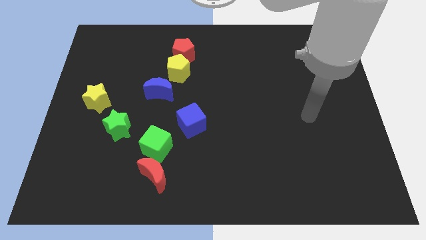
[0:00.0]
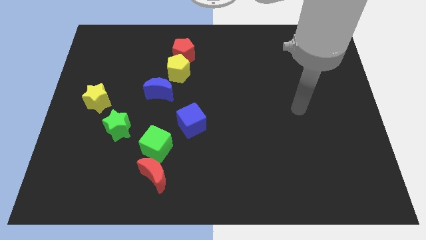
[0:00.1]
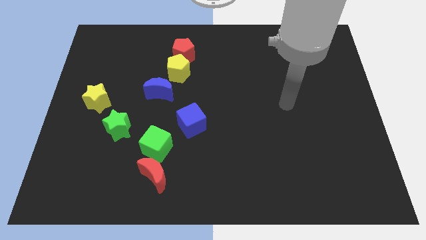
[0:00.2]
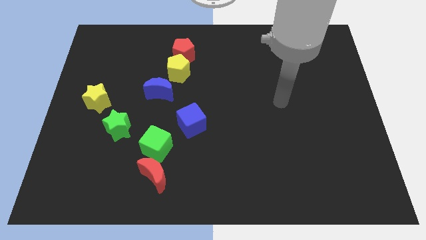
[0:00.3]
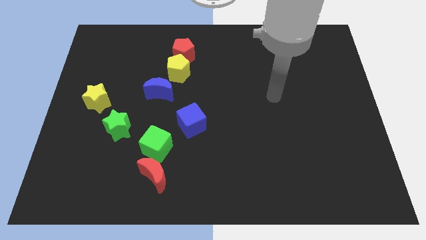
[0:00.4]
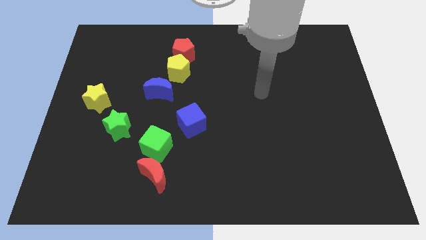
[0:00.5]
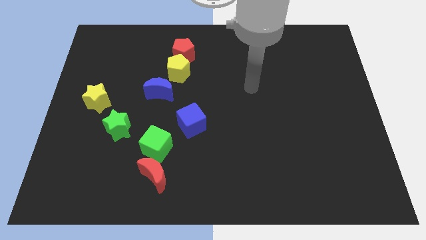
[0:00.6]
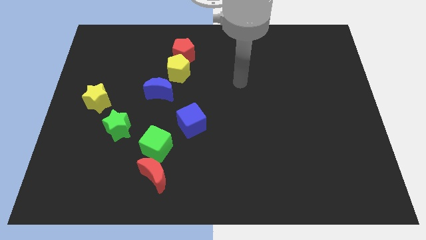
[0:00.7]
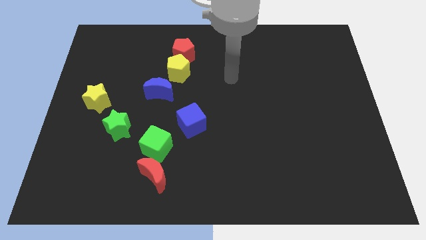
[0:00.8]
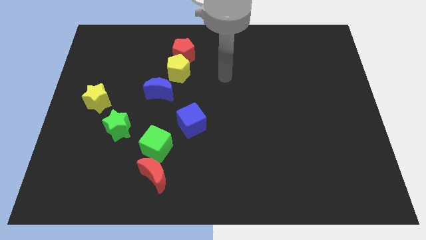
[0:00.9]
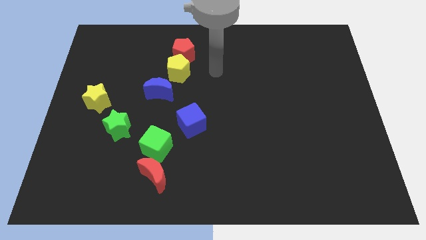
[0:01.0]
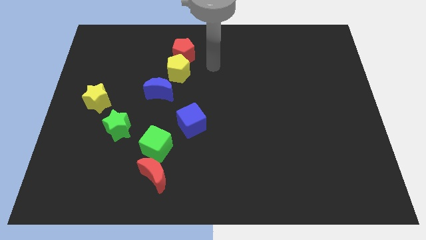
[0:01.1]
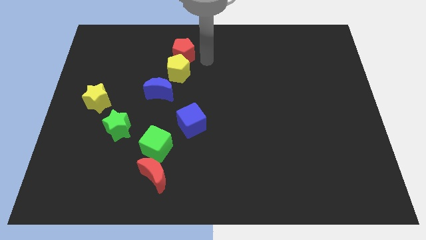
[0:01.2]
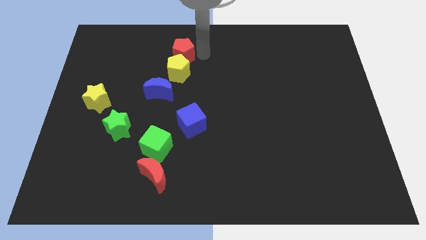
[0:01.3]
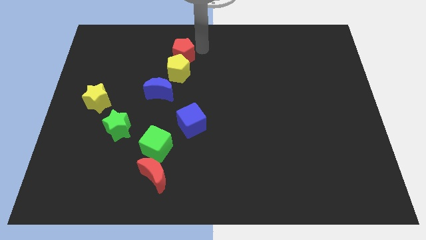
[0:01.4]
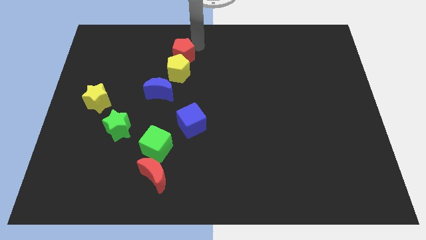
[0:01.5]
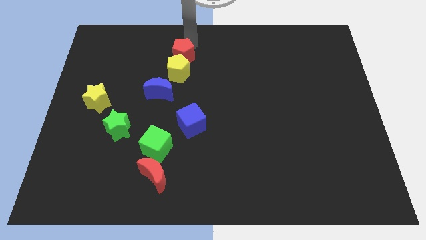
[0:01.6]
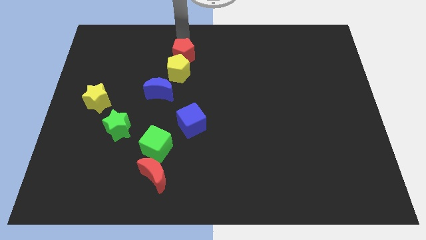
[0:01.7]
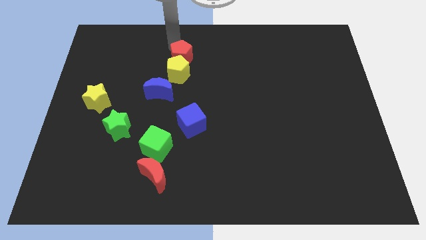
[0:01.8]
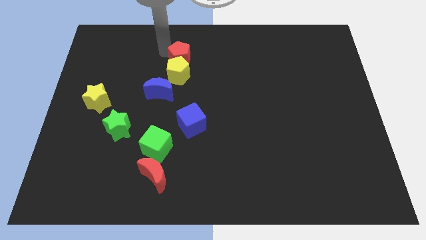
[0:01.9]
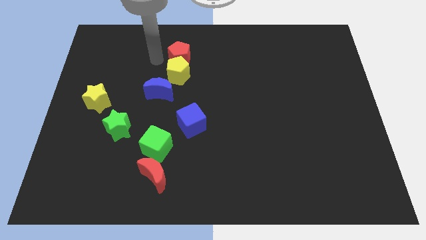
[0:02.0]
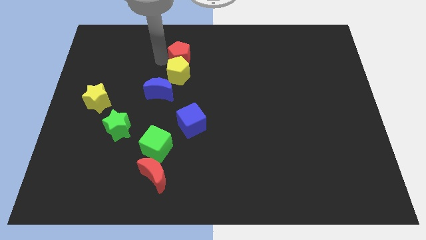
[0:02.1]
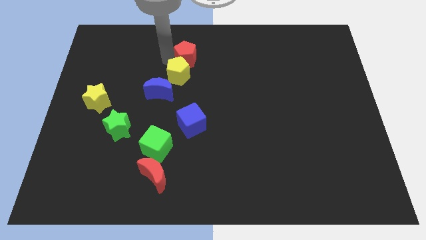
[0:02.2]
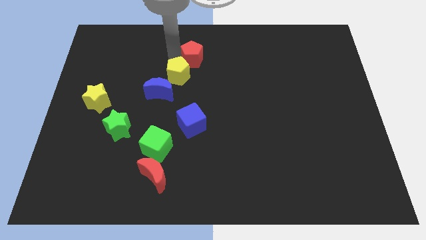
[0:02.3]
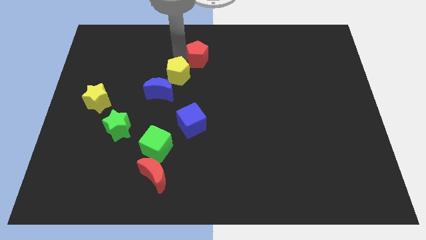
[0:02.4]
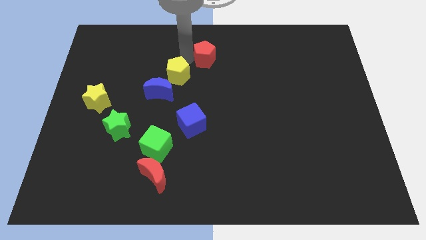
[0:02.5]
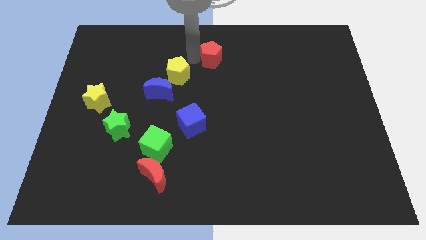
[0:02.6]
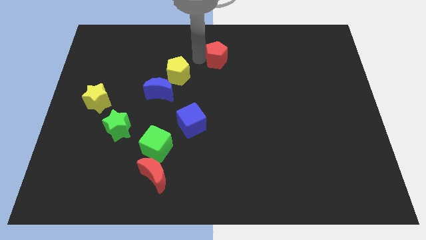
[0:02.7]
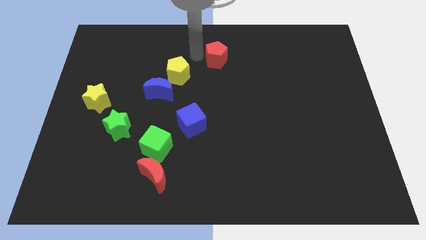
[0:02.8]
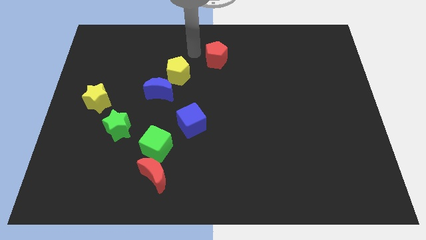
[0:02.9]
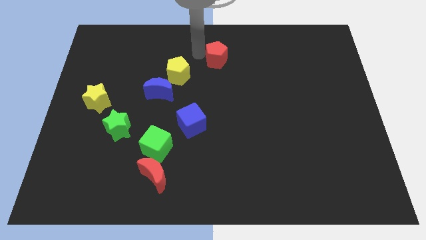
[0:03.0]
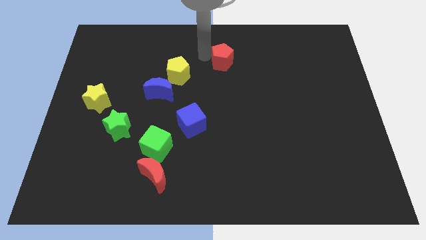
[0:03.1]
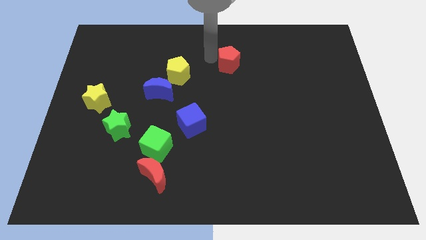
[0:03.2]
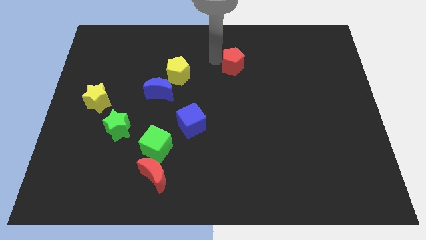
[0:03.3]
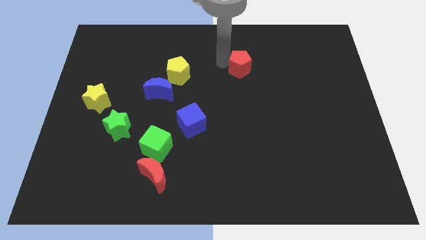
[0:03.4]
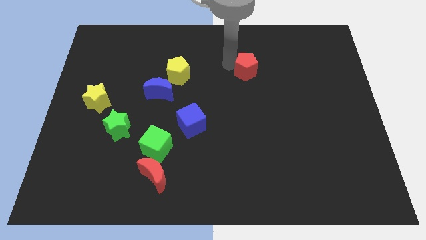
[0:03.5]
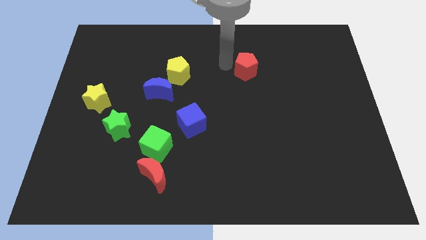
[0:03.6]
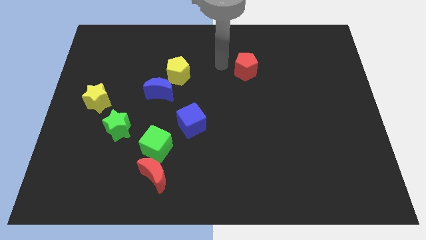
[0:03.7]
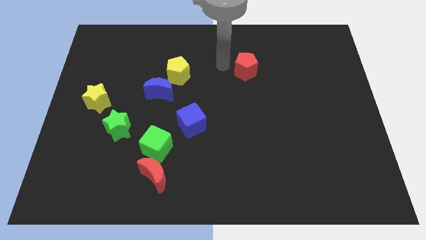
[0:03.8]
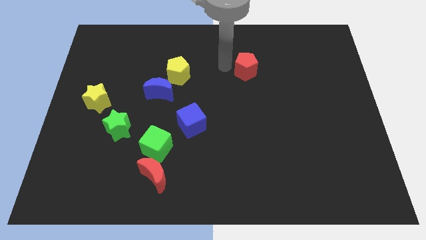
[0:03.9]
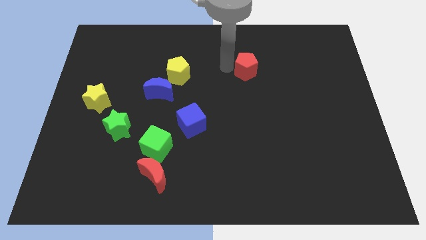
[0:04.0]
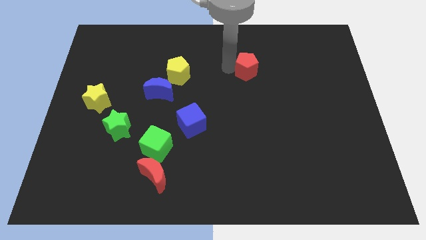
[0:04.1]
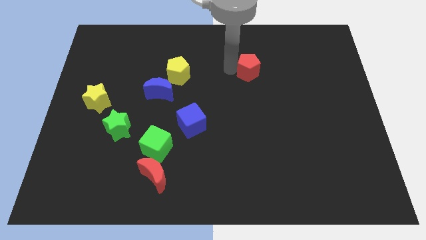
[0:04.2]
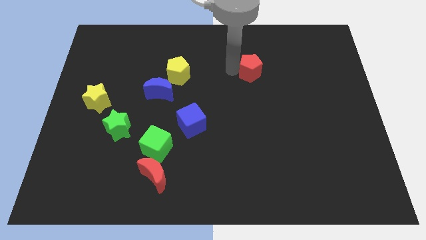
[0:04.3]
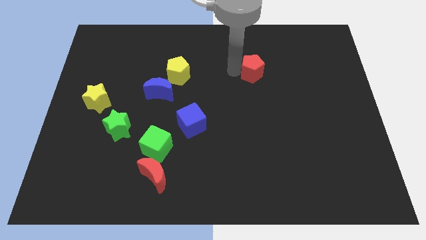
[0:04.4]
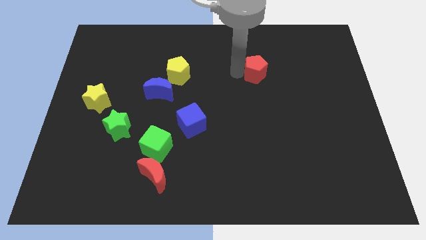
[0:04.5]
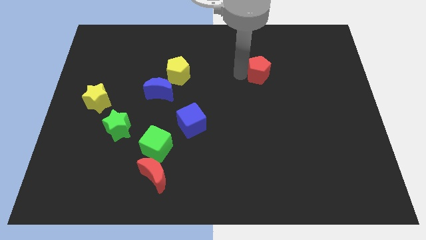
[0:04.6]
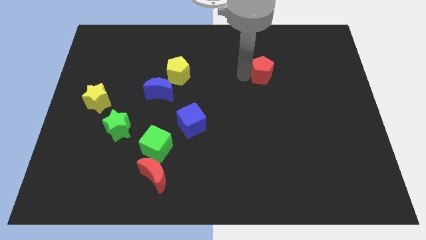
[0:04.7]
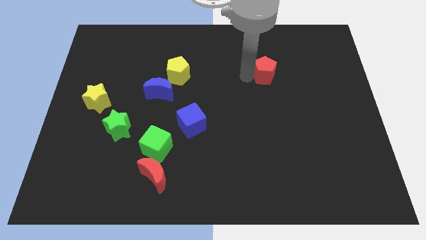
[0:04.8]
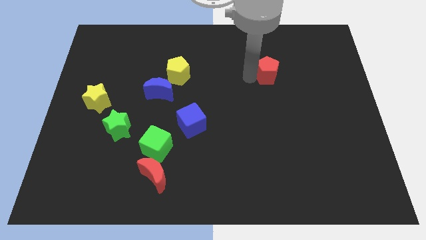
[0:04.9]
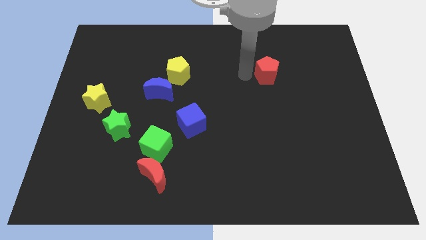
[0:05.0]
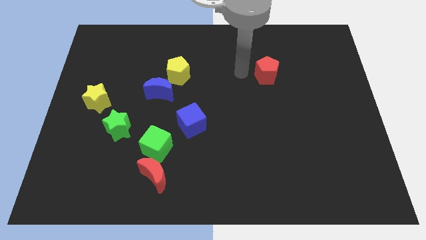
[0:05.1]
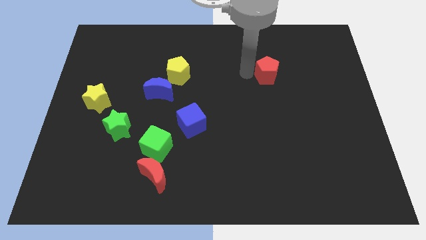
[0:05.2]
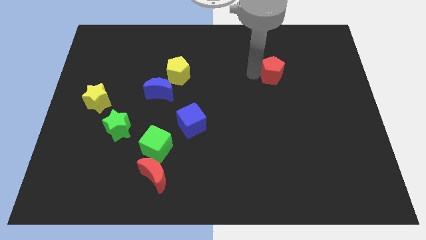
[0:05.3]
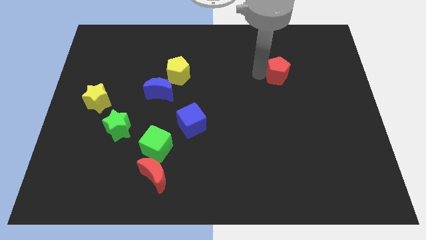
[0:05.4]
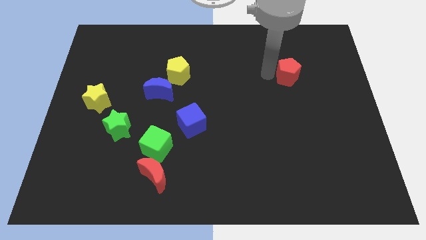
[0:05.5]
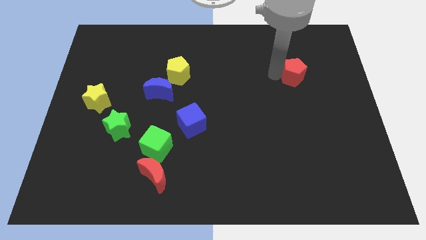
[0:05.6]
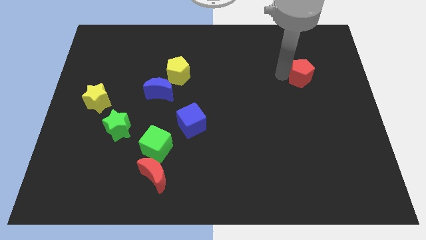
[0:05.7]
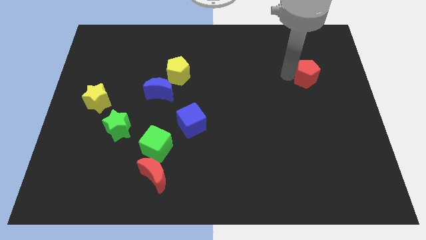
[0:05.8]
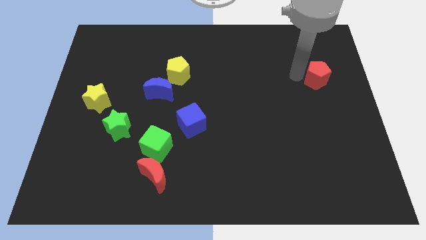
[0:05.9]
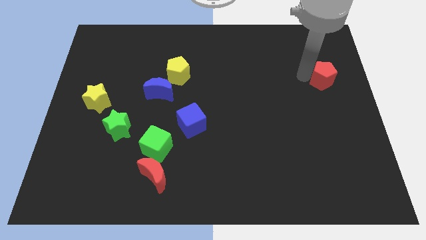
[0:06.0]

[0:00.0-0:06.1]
push the red pentagon to the right side

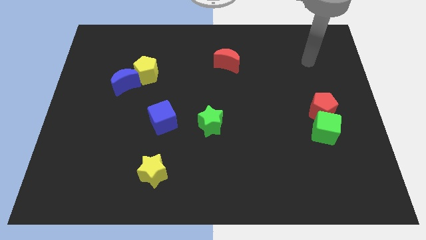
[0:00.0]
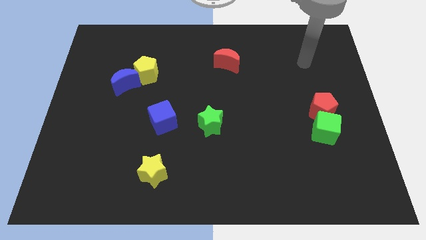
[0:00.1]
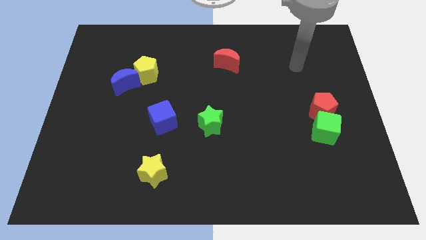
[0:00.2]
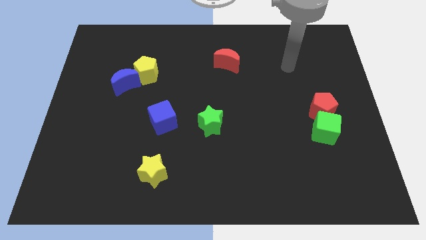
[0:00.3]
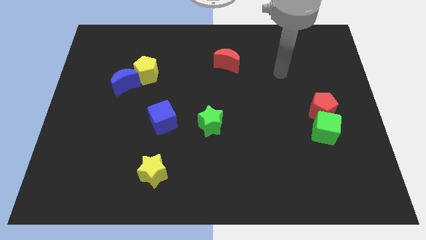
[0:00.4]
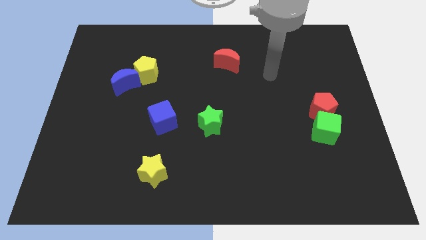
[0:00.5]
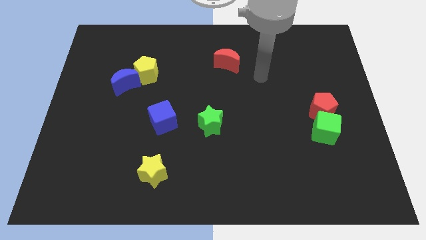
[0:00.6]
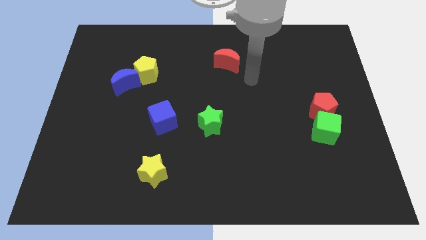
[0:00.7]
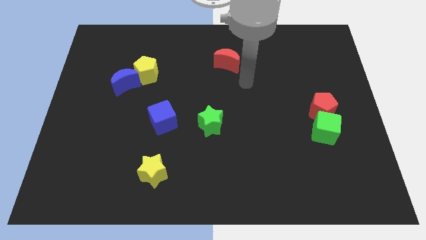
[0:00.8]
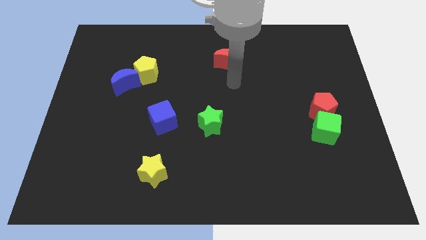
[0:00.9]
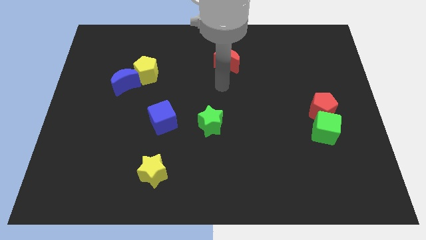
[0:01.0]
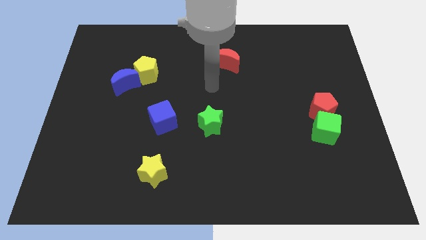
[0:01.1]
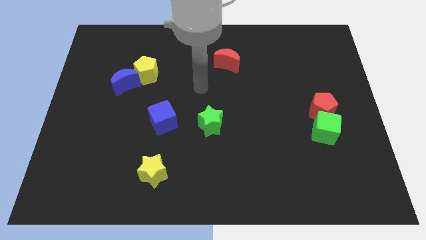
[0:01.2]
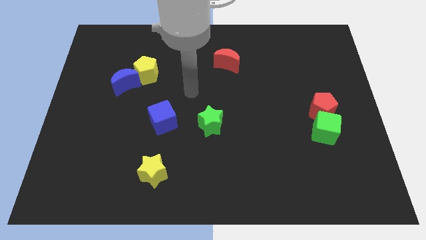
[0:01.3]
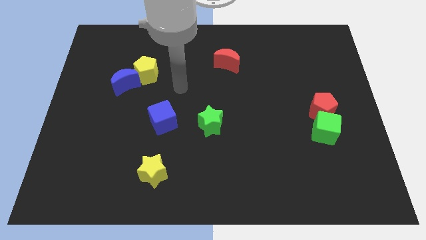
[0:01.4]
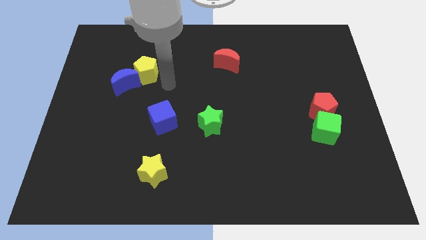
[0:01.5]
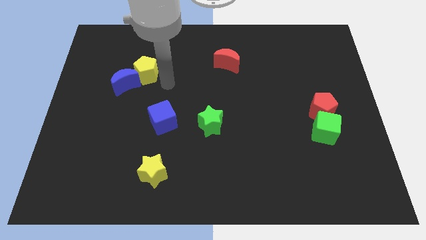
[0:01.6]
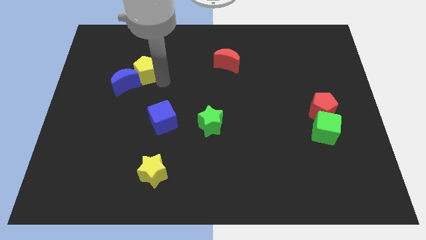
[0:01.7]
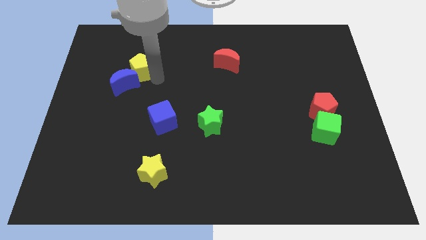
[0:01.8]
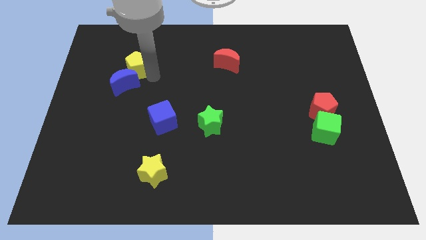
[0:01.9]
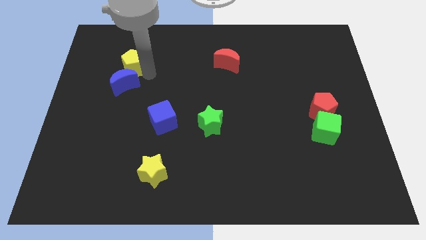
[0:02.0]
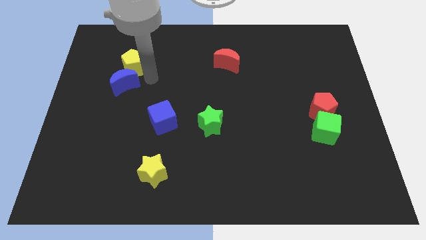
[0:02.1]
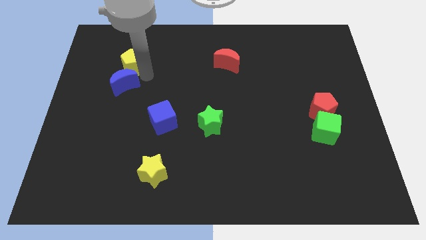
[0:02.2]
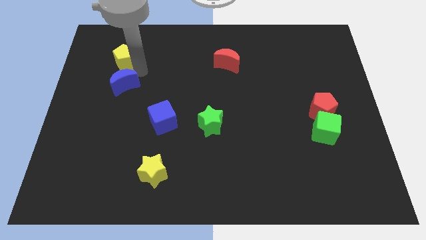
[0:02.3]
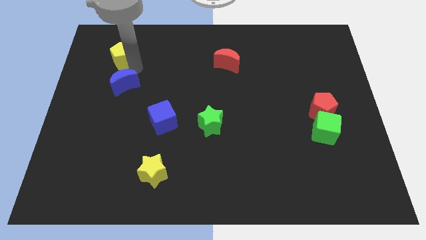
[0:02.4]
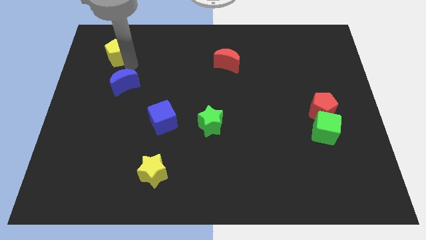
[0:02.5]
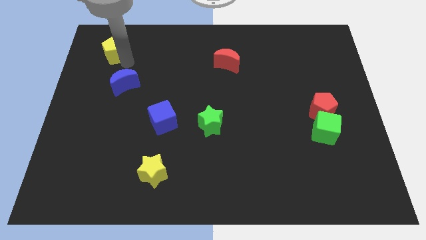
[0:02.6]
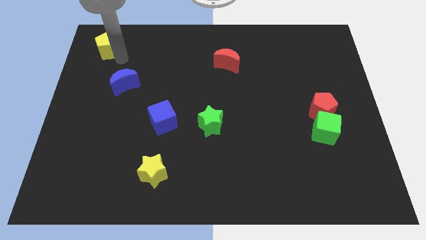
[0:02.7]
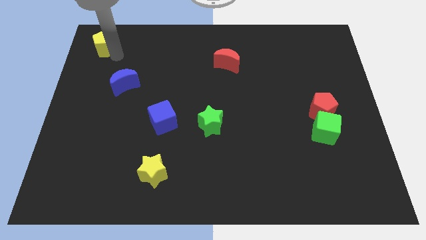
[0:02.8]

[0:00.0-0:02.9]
push the yellow pentagon to the top left
